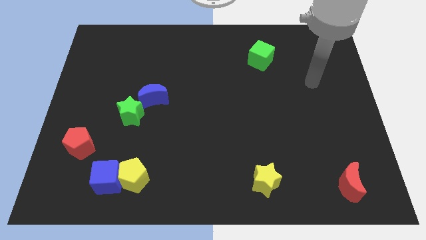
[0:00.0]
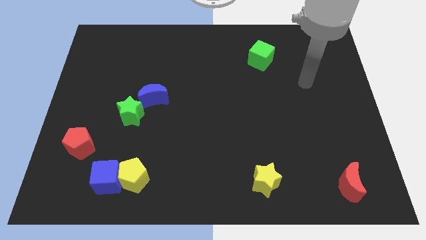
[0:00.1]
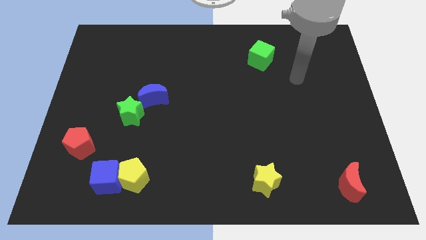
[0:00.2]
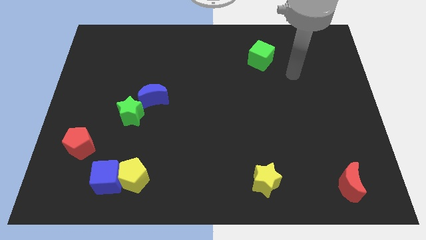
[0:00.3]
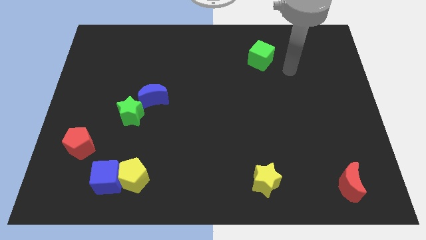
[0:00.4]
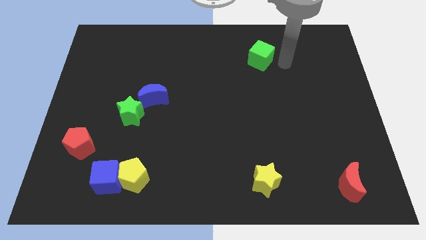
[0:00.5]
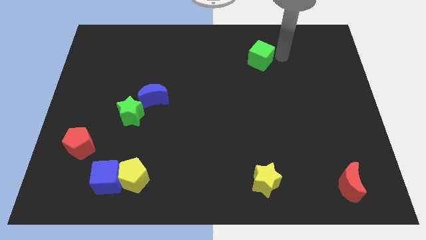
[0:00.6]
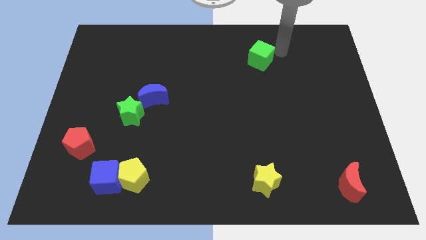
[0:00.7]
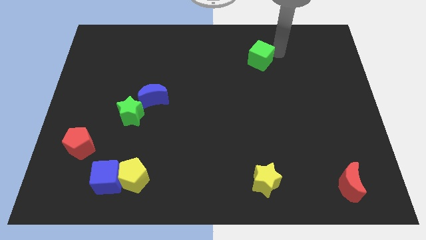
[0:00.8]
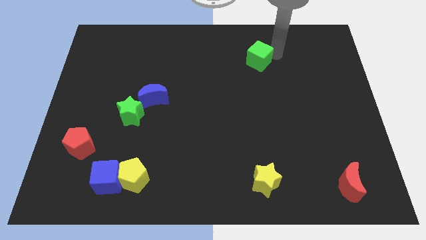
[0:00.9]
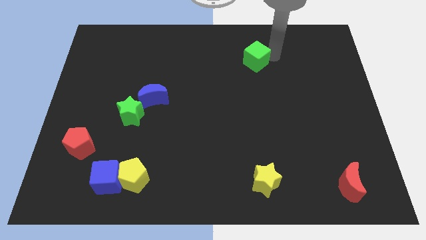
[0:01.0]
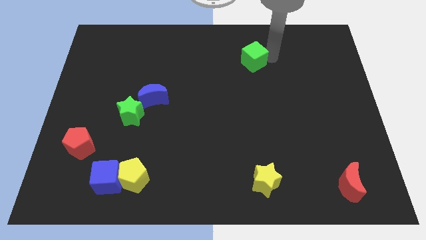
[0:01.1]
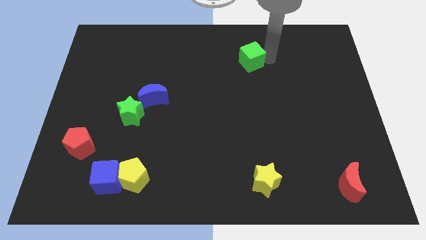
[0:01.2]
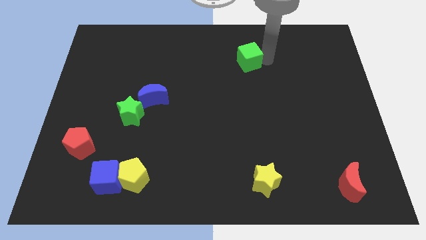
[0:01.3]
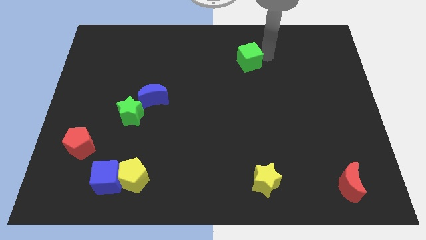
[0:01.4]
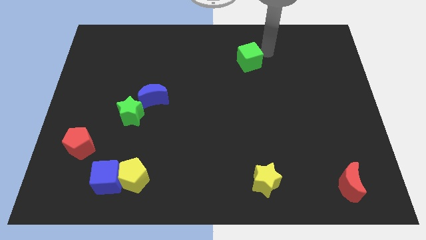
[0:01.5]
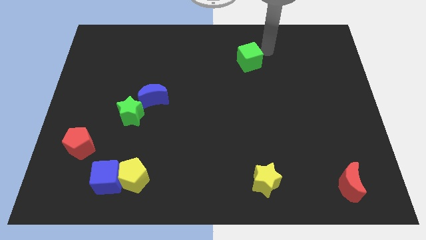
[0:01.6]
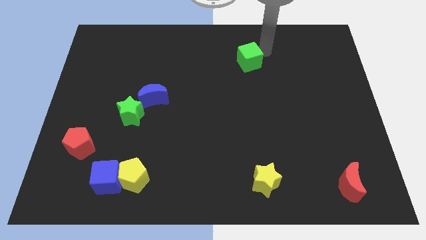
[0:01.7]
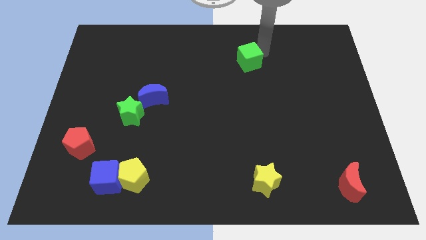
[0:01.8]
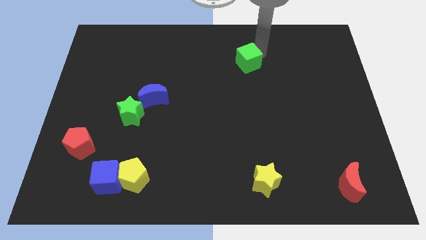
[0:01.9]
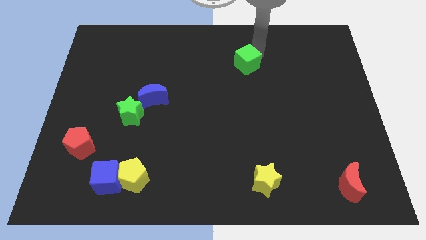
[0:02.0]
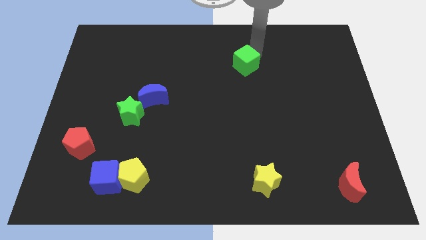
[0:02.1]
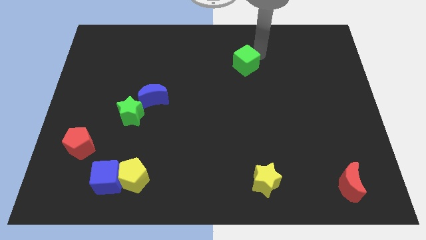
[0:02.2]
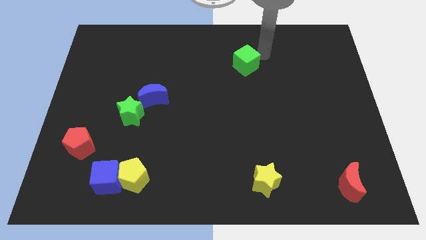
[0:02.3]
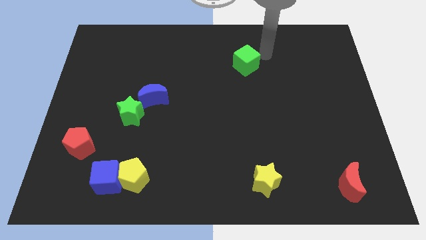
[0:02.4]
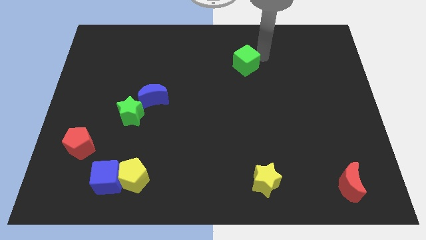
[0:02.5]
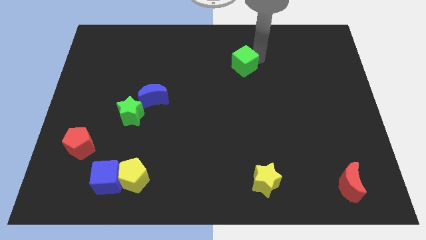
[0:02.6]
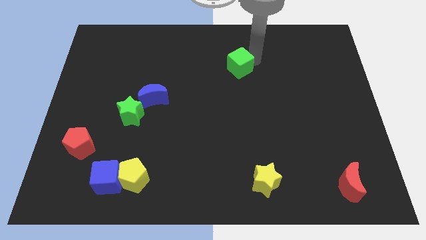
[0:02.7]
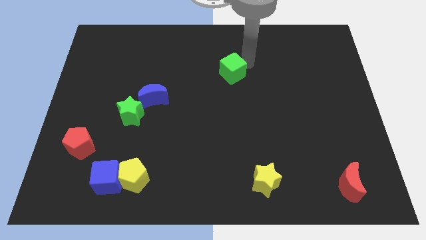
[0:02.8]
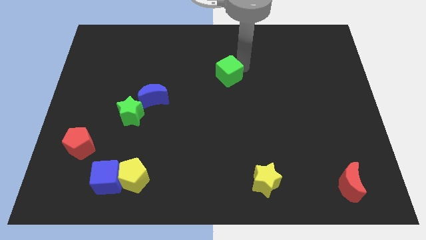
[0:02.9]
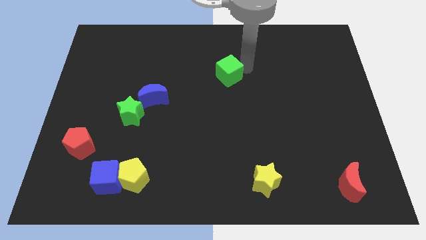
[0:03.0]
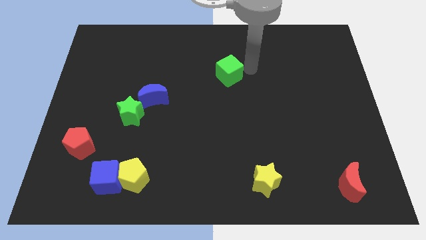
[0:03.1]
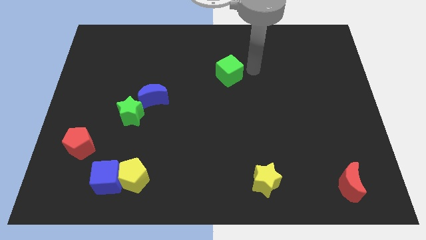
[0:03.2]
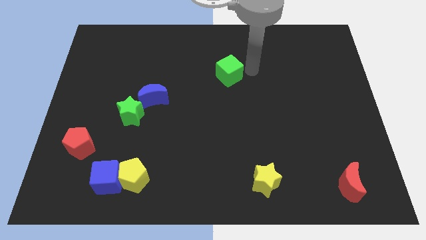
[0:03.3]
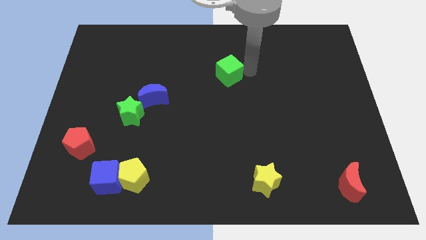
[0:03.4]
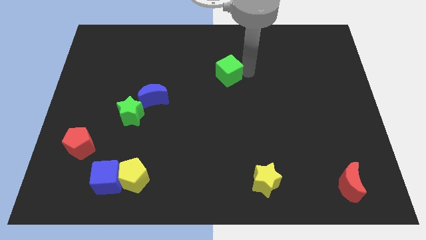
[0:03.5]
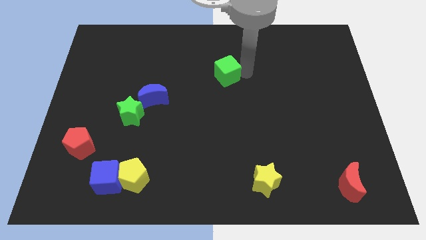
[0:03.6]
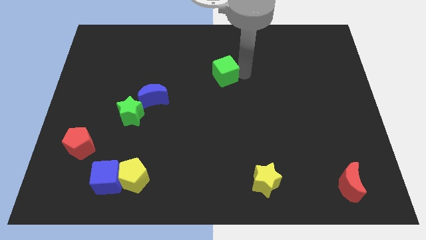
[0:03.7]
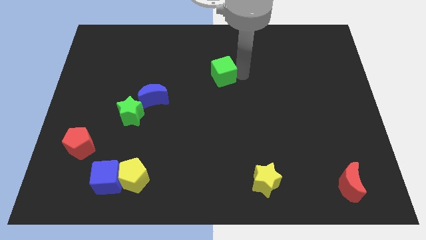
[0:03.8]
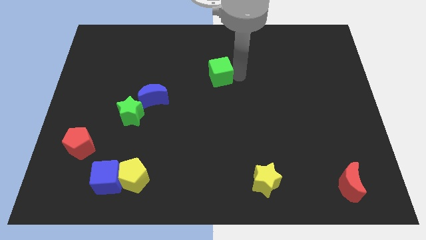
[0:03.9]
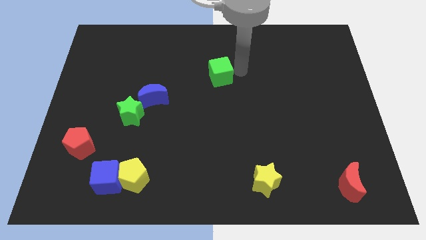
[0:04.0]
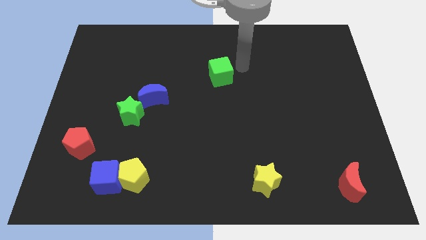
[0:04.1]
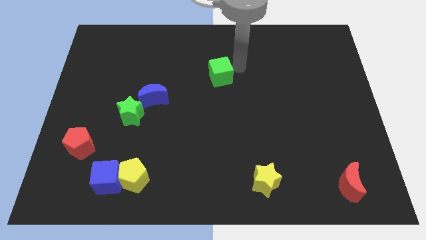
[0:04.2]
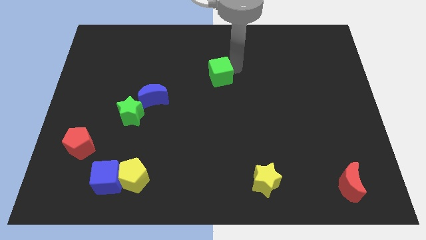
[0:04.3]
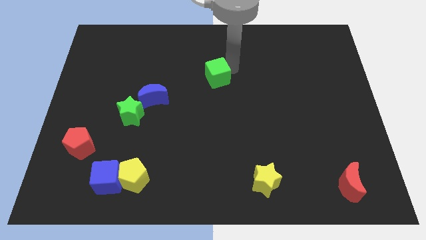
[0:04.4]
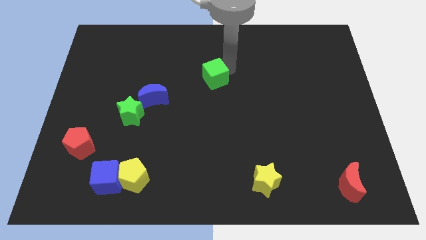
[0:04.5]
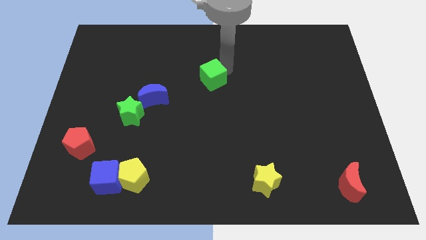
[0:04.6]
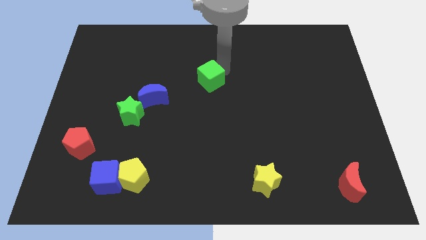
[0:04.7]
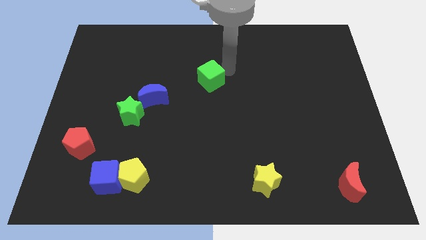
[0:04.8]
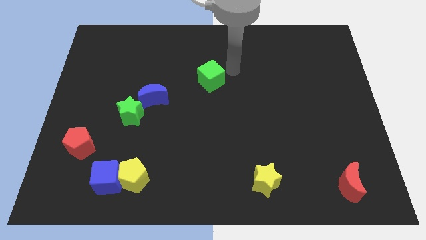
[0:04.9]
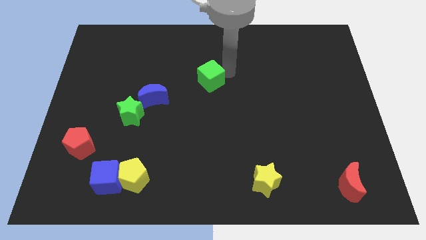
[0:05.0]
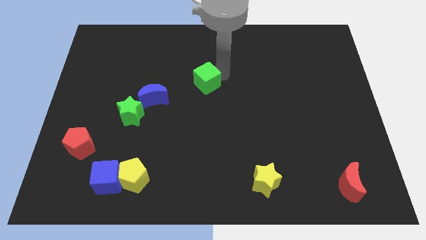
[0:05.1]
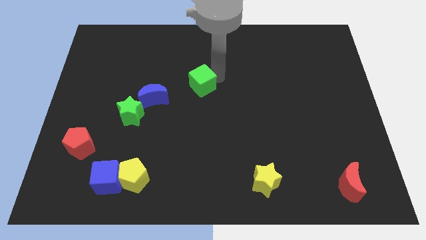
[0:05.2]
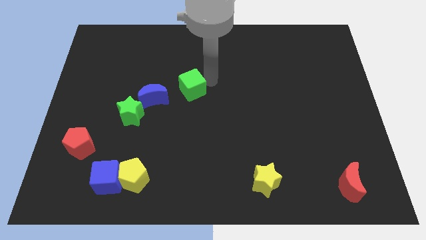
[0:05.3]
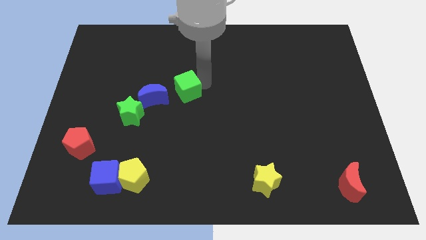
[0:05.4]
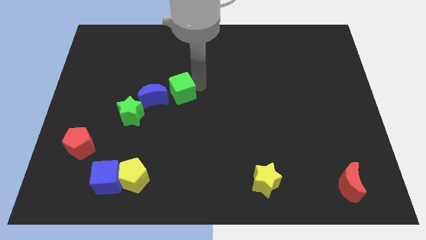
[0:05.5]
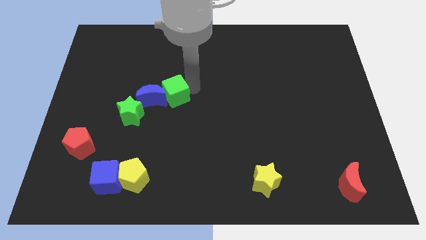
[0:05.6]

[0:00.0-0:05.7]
move the green cube next to the blue moon

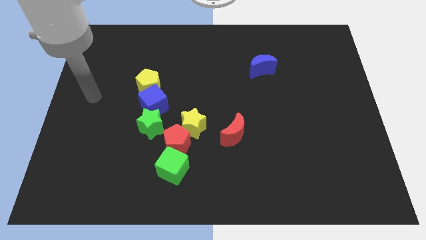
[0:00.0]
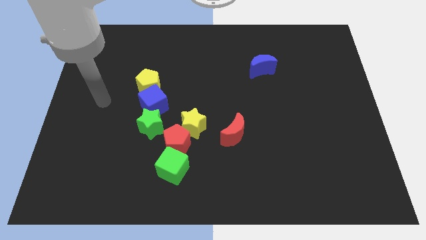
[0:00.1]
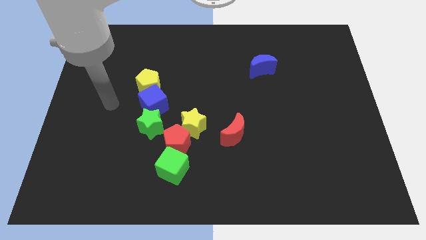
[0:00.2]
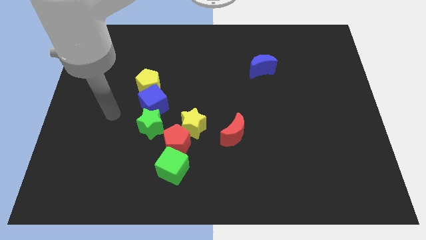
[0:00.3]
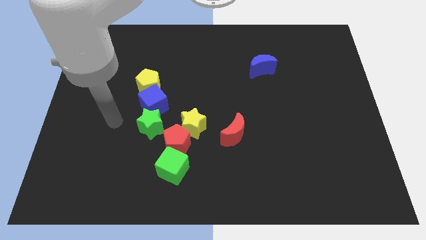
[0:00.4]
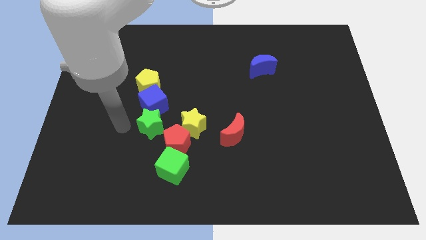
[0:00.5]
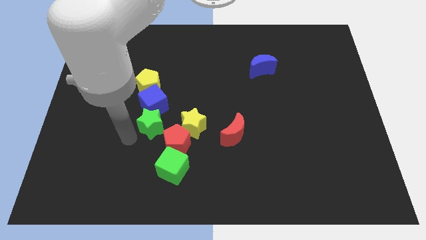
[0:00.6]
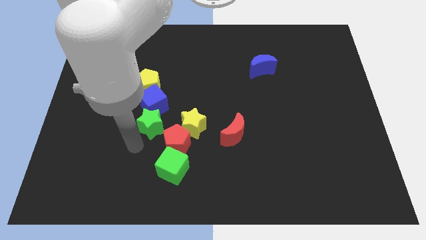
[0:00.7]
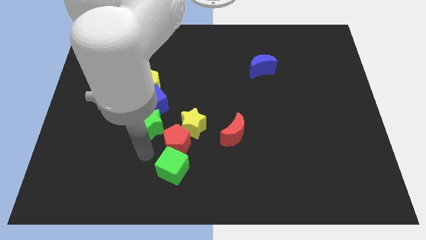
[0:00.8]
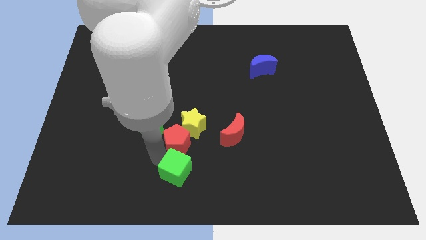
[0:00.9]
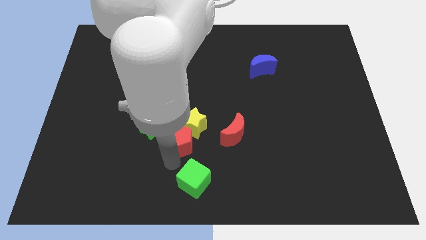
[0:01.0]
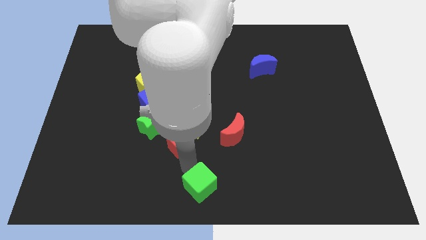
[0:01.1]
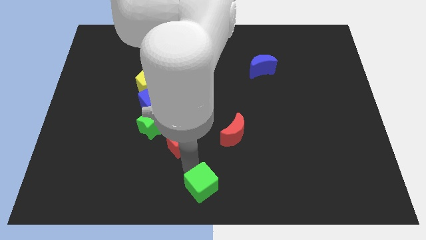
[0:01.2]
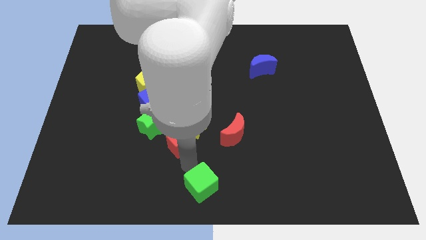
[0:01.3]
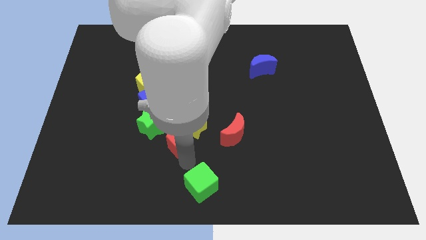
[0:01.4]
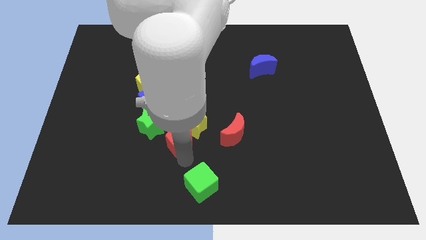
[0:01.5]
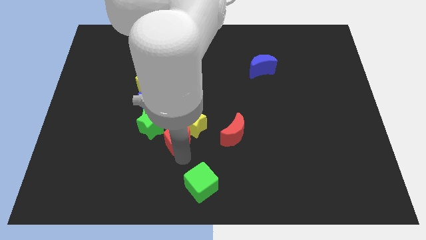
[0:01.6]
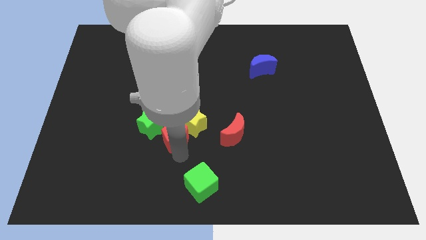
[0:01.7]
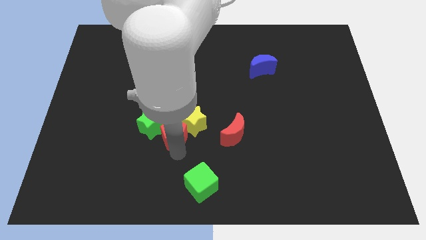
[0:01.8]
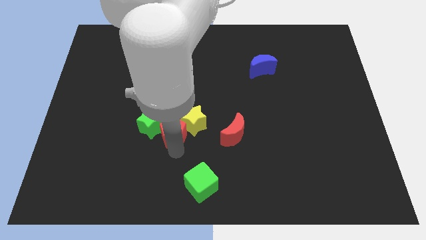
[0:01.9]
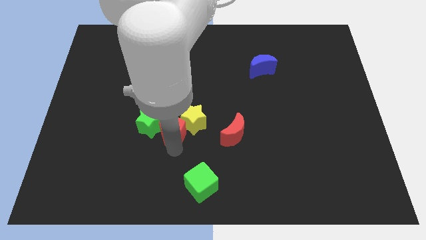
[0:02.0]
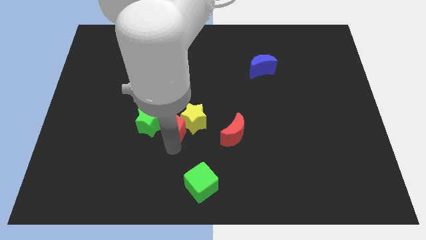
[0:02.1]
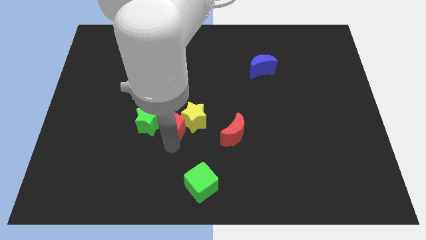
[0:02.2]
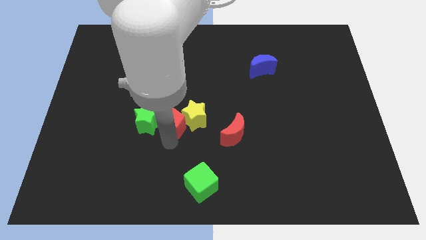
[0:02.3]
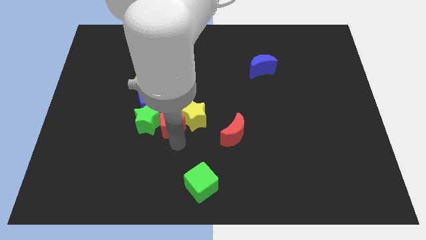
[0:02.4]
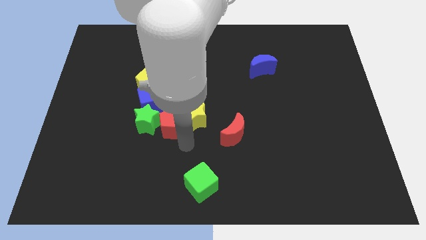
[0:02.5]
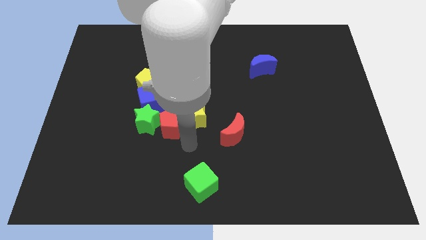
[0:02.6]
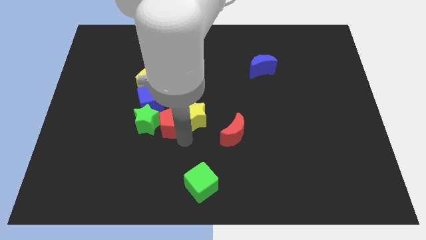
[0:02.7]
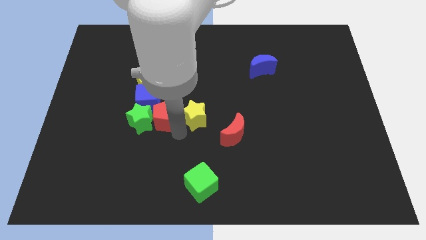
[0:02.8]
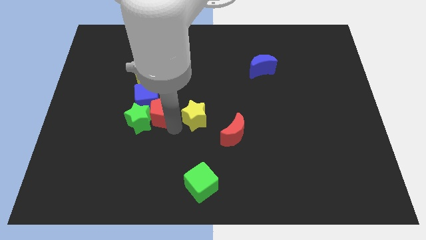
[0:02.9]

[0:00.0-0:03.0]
move the red pentagon to the blue cube
